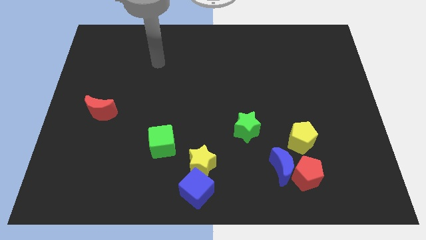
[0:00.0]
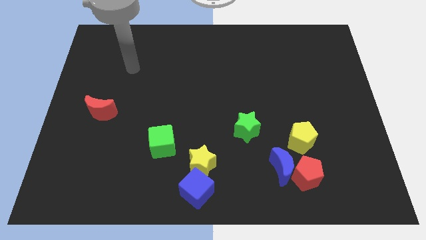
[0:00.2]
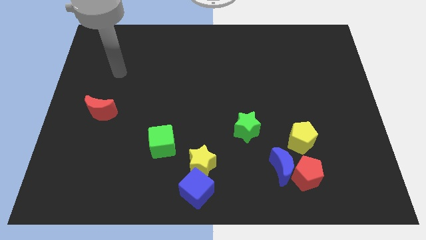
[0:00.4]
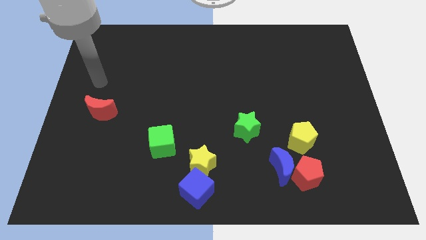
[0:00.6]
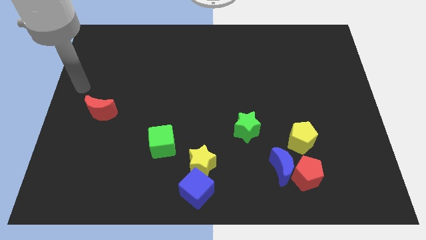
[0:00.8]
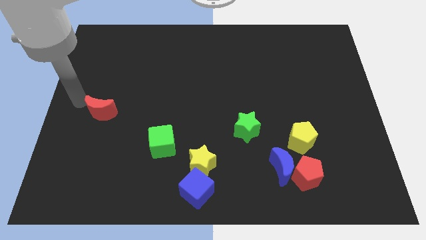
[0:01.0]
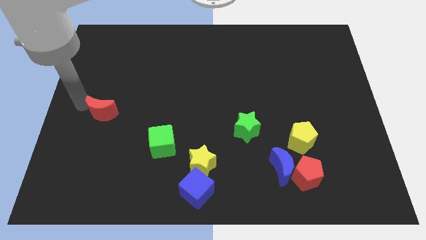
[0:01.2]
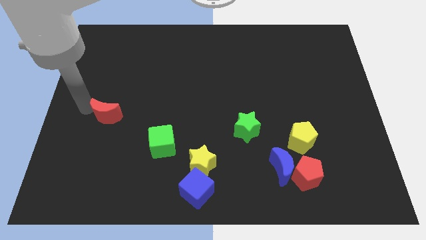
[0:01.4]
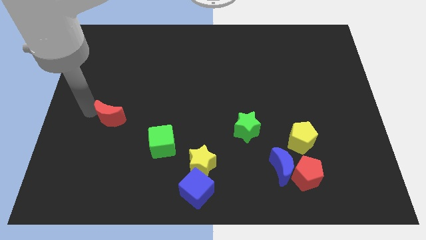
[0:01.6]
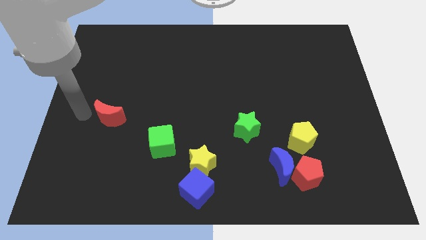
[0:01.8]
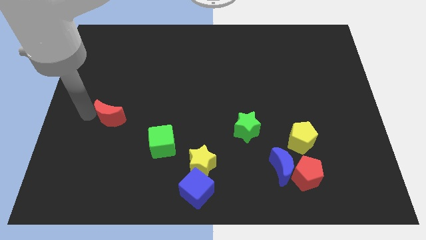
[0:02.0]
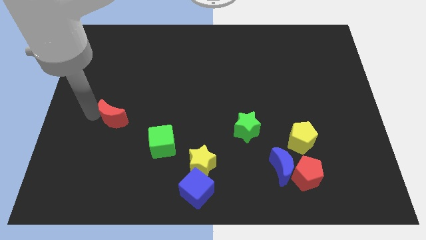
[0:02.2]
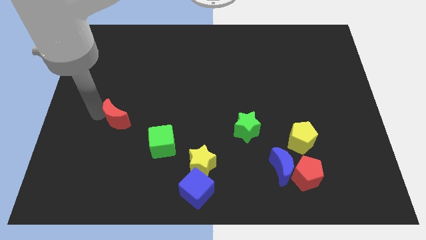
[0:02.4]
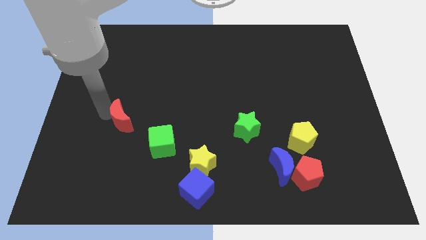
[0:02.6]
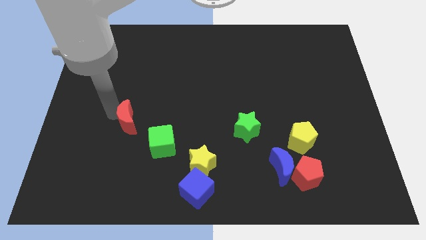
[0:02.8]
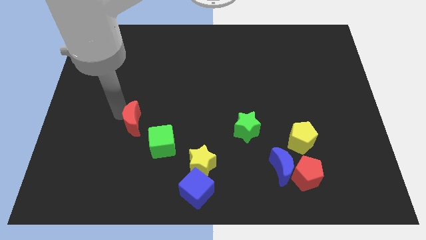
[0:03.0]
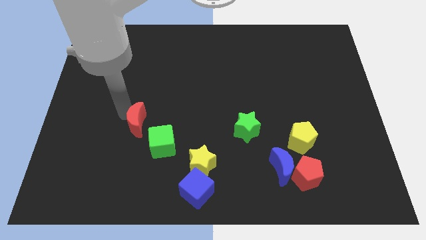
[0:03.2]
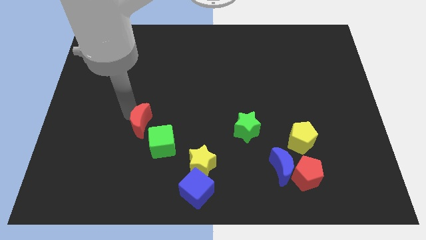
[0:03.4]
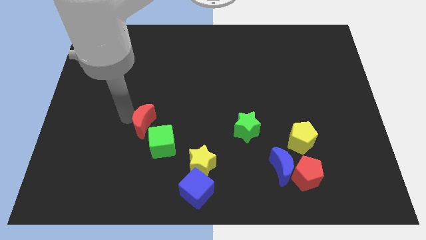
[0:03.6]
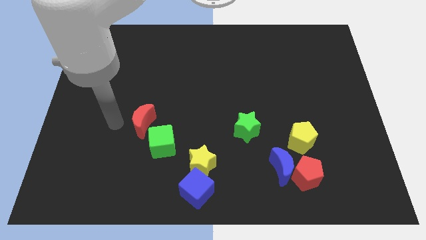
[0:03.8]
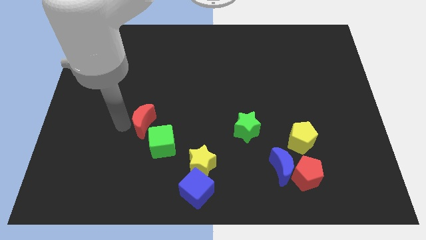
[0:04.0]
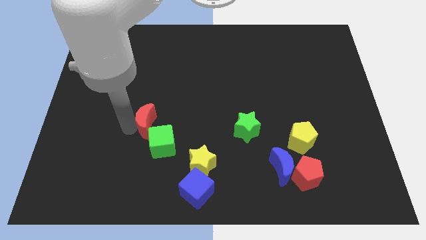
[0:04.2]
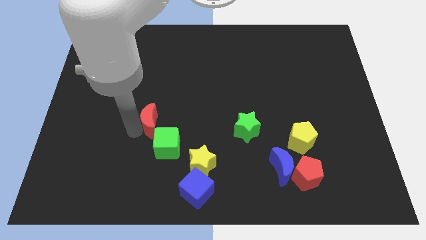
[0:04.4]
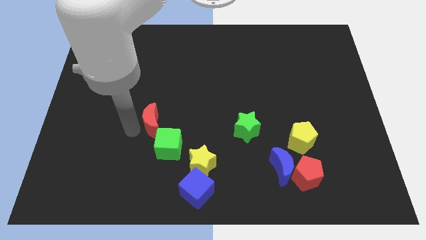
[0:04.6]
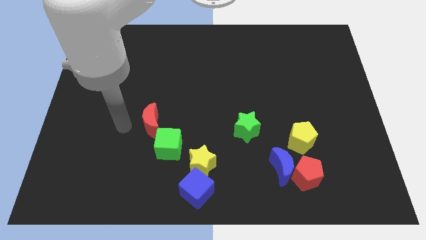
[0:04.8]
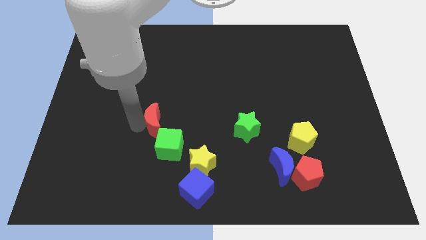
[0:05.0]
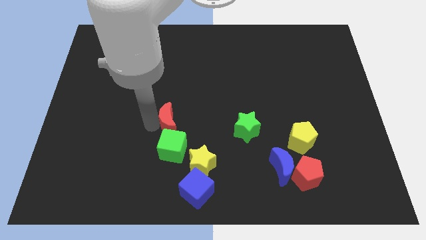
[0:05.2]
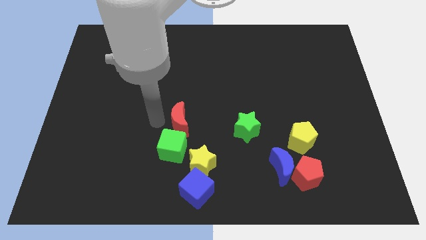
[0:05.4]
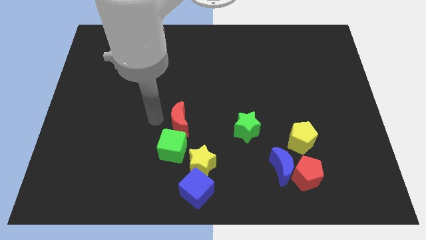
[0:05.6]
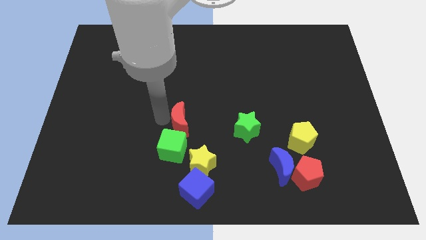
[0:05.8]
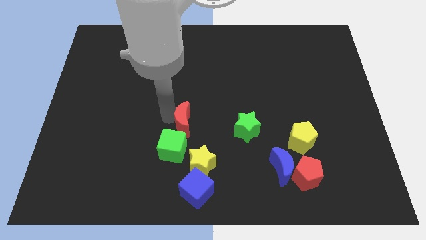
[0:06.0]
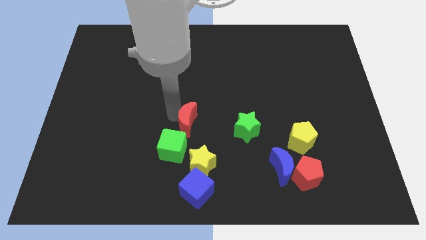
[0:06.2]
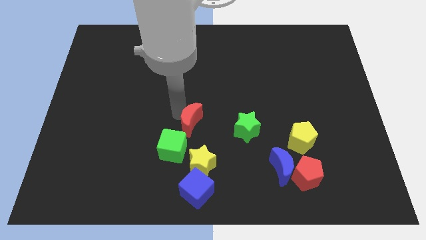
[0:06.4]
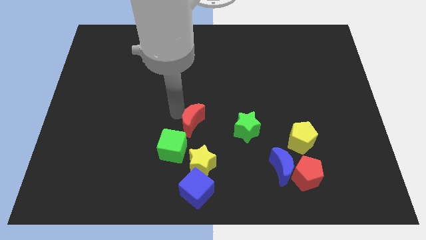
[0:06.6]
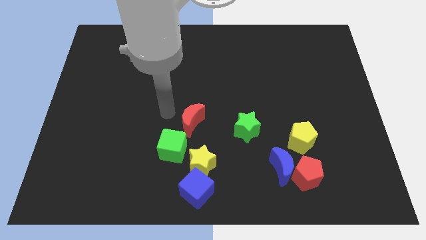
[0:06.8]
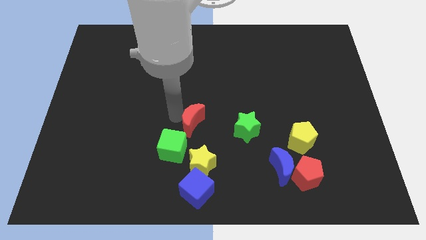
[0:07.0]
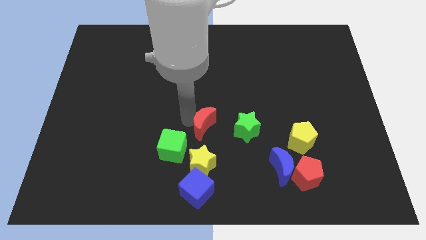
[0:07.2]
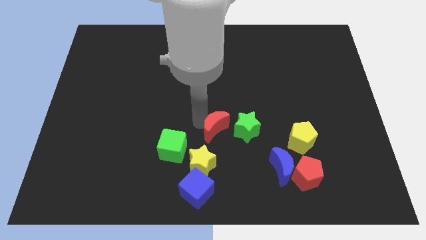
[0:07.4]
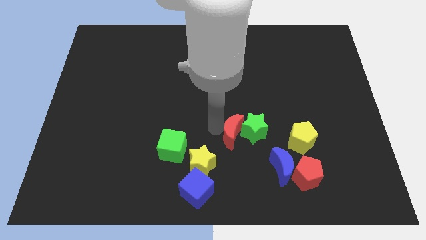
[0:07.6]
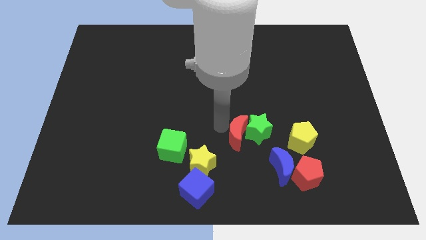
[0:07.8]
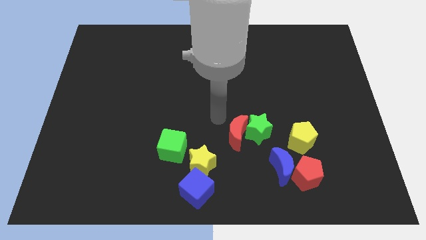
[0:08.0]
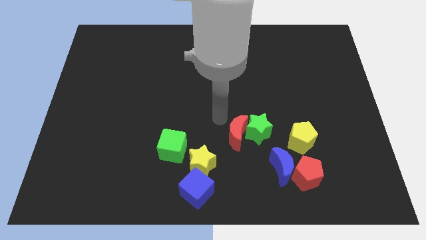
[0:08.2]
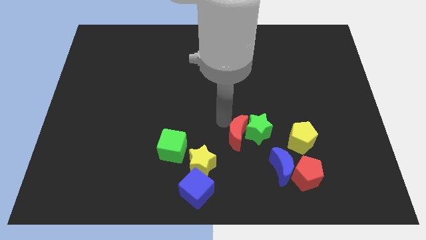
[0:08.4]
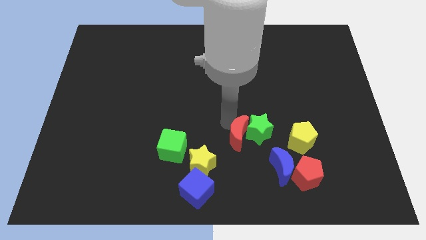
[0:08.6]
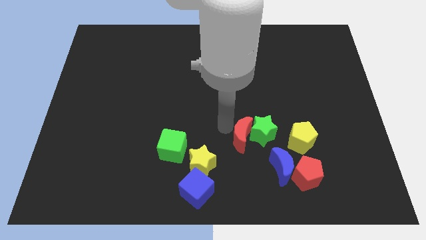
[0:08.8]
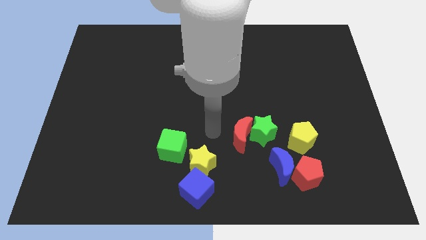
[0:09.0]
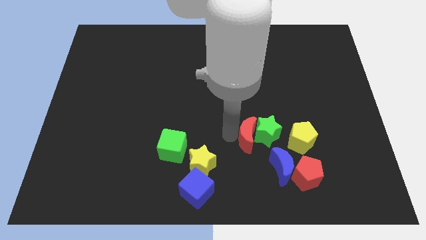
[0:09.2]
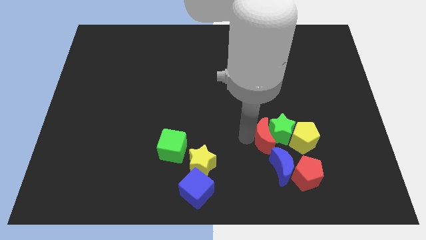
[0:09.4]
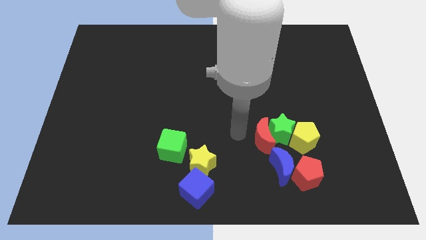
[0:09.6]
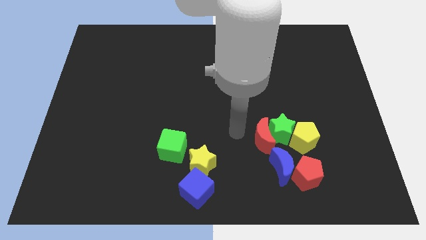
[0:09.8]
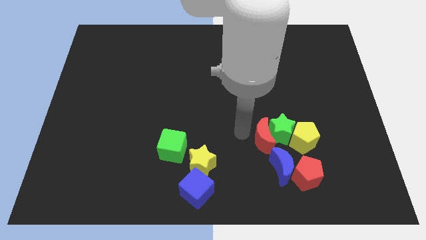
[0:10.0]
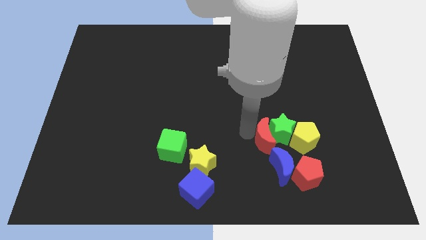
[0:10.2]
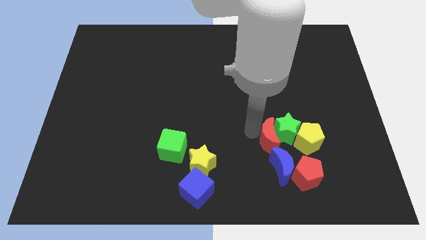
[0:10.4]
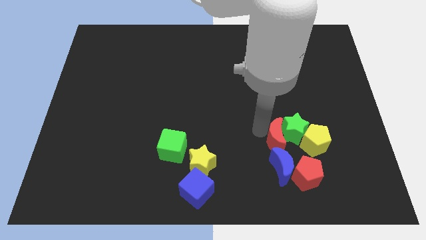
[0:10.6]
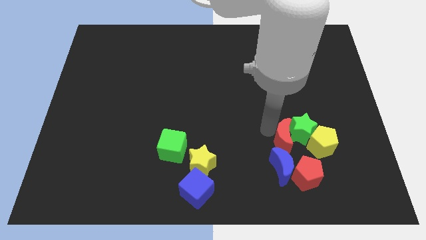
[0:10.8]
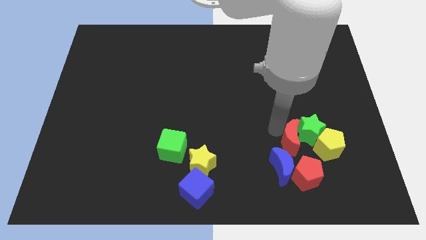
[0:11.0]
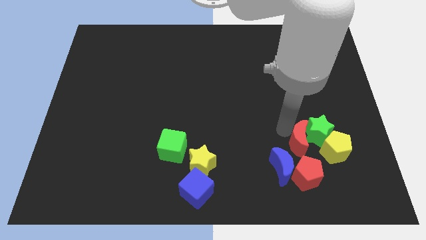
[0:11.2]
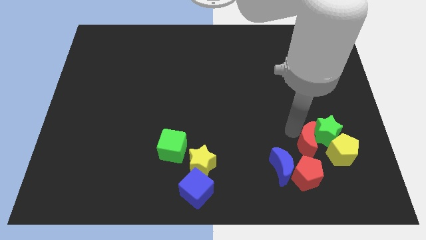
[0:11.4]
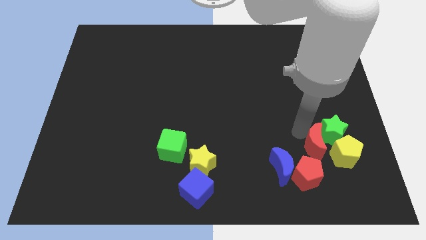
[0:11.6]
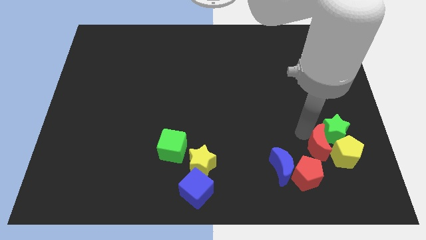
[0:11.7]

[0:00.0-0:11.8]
move the red moon towards the yellow pentagon

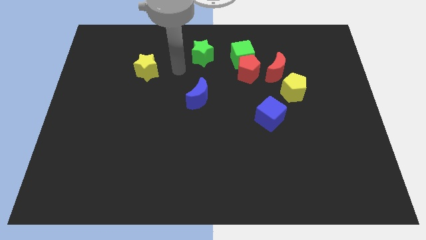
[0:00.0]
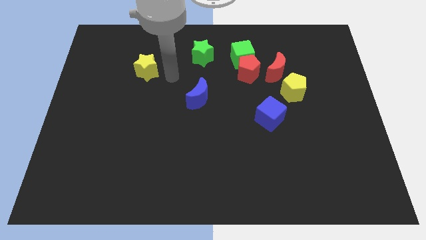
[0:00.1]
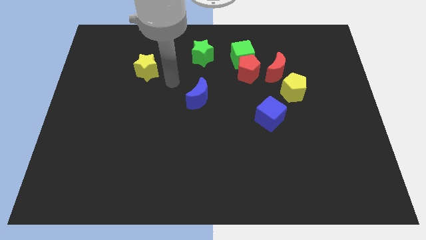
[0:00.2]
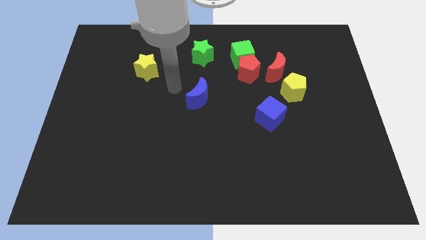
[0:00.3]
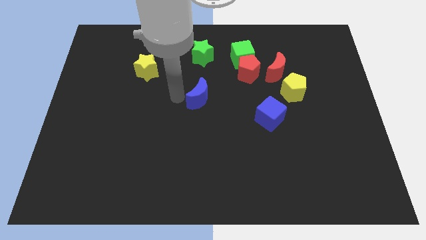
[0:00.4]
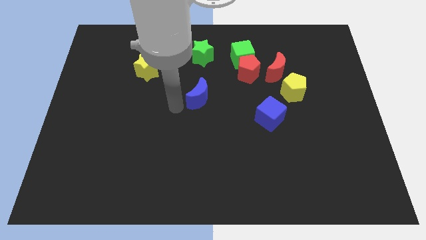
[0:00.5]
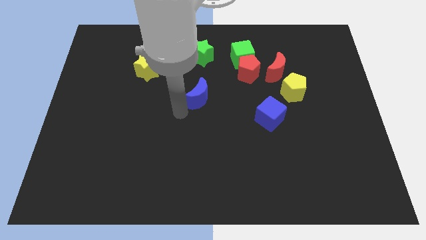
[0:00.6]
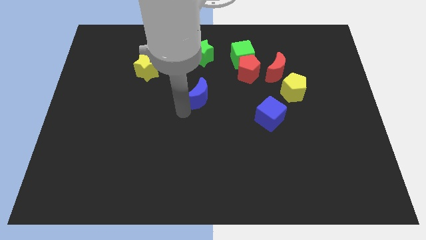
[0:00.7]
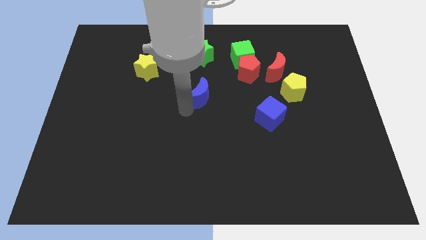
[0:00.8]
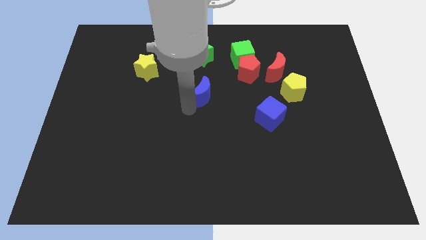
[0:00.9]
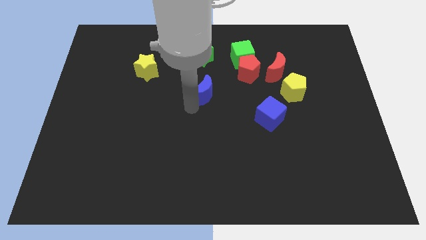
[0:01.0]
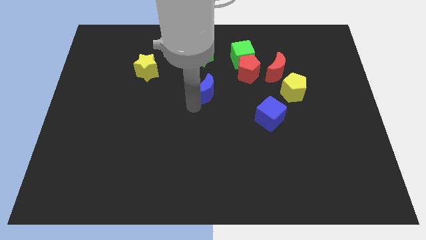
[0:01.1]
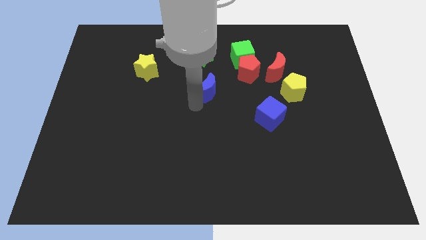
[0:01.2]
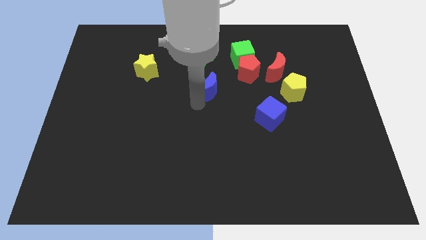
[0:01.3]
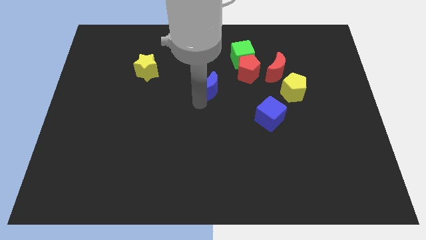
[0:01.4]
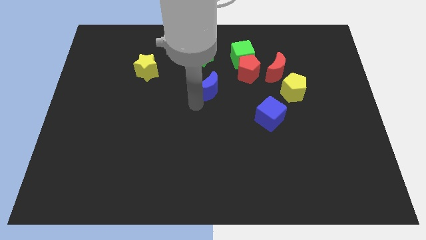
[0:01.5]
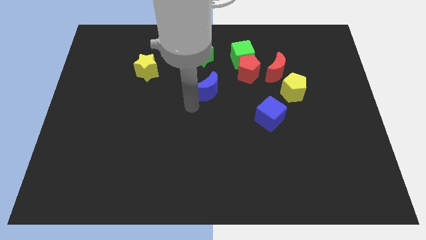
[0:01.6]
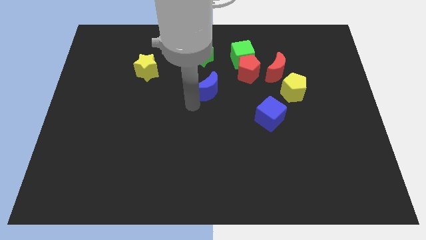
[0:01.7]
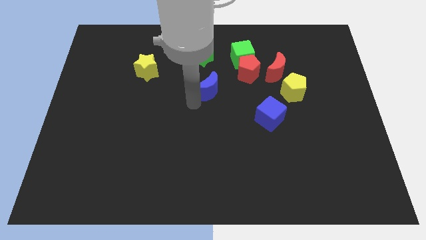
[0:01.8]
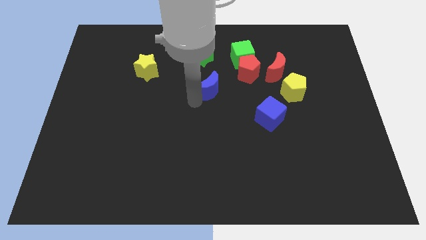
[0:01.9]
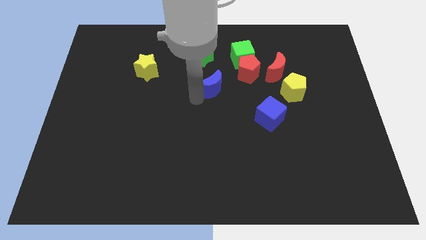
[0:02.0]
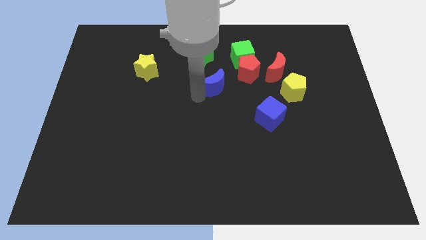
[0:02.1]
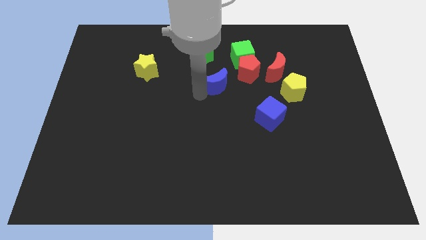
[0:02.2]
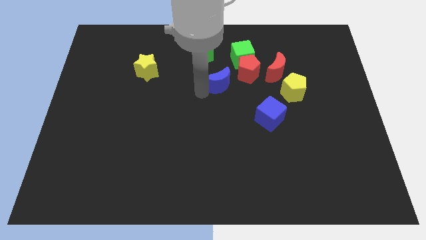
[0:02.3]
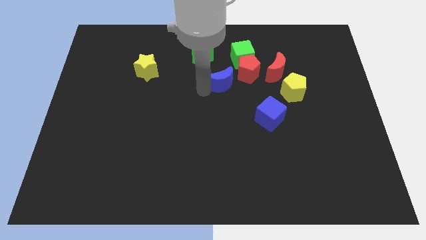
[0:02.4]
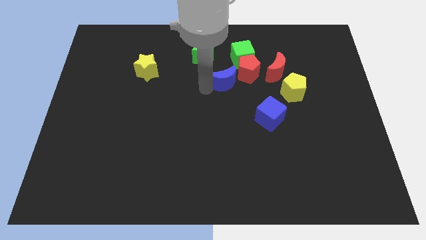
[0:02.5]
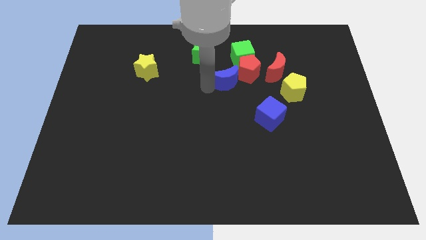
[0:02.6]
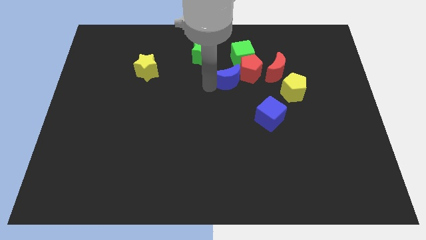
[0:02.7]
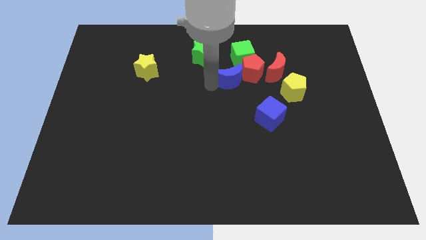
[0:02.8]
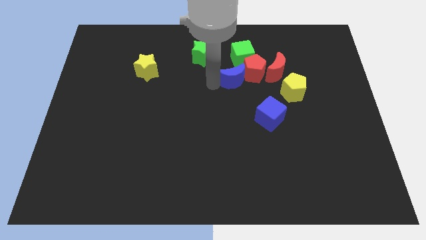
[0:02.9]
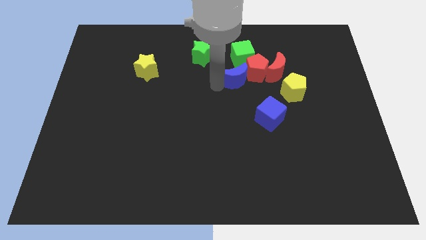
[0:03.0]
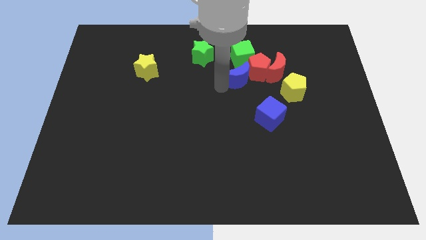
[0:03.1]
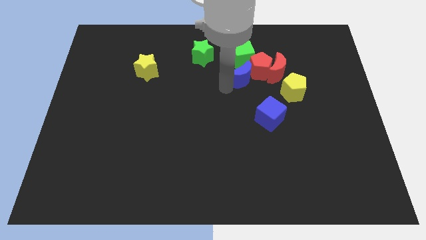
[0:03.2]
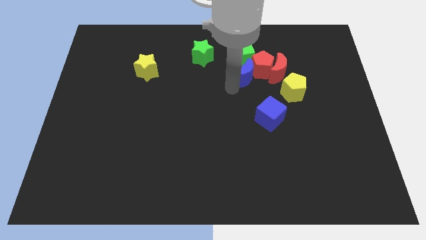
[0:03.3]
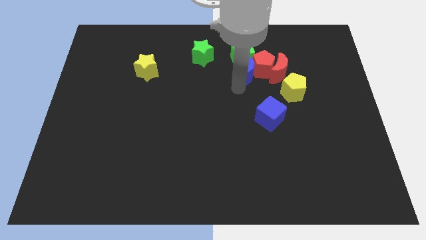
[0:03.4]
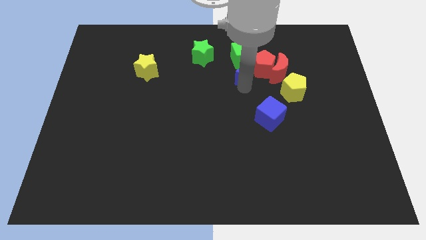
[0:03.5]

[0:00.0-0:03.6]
move the blue moon close to the green cube
